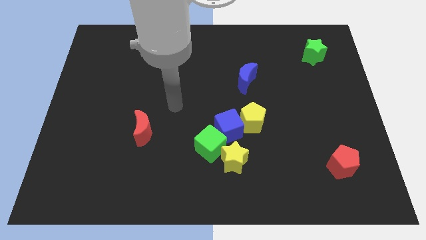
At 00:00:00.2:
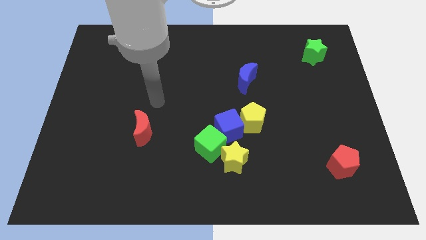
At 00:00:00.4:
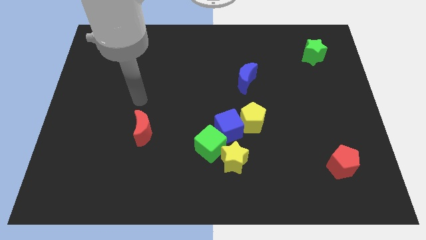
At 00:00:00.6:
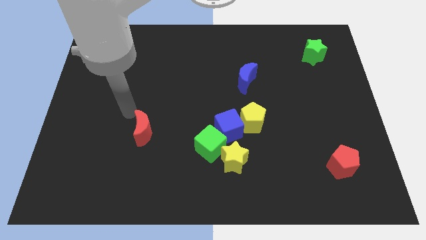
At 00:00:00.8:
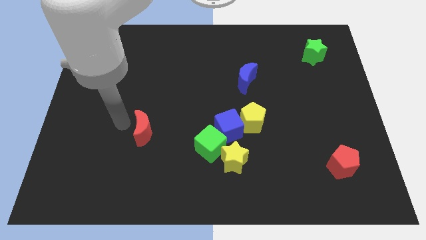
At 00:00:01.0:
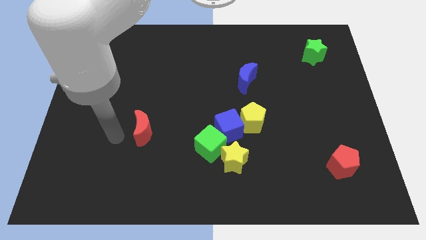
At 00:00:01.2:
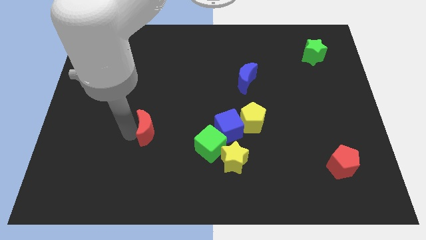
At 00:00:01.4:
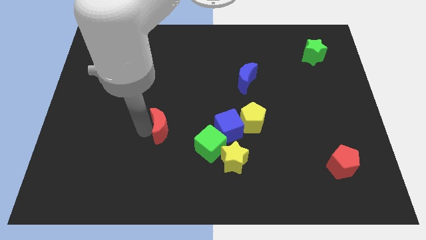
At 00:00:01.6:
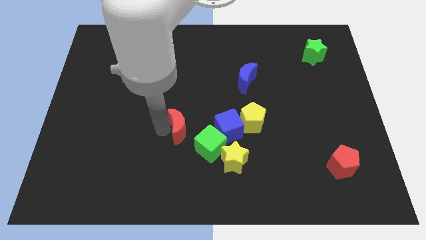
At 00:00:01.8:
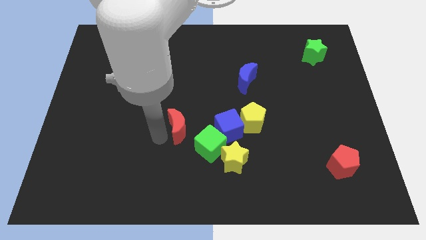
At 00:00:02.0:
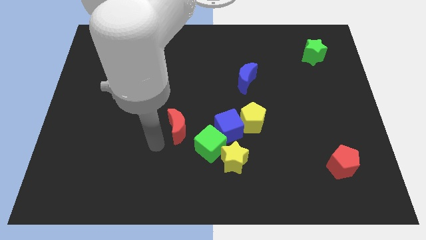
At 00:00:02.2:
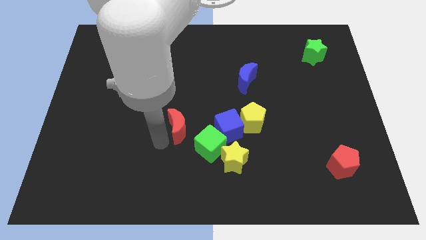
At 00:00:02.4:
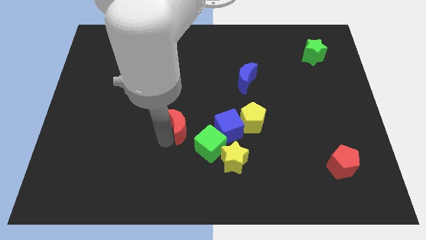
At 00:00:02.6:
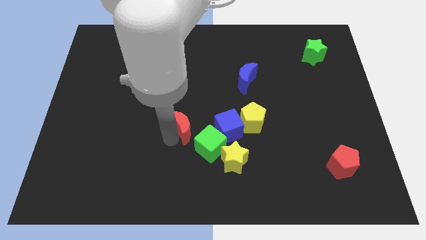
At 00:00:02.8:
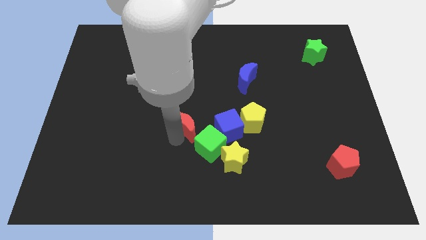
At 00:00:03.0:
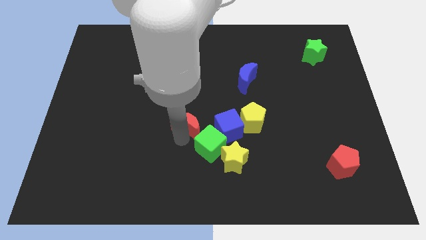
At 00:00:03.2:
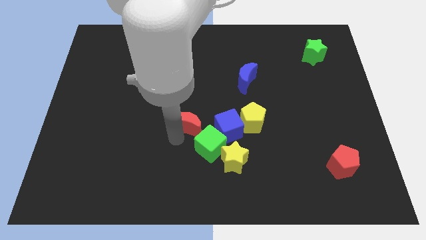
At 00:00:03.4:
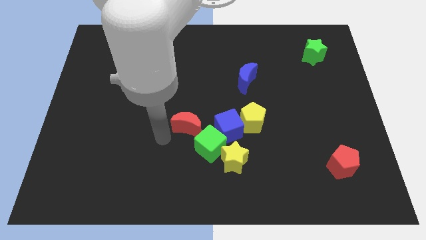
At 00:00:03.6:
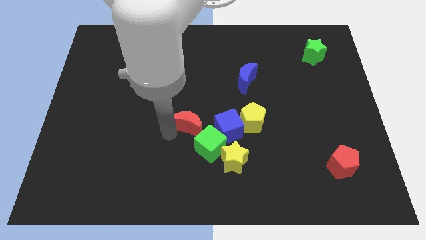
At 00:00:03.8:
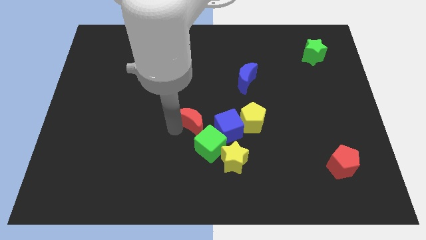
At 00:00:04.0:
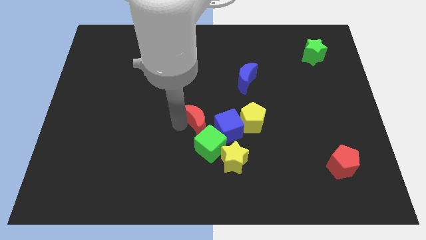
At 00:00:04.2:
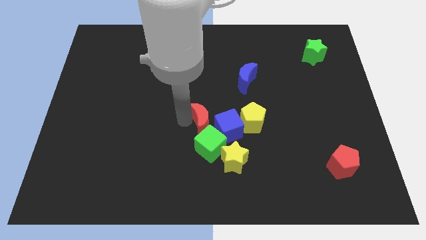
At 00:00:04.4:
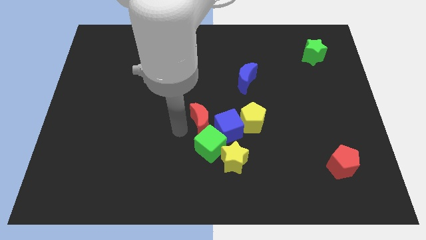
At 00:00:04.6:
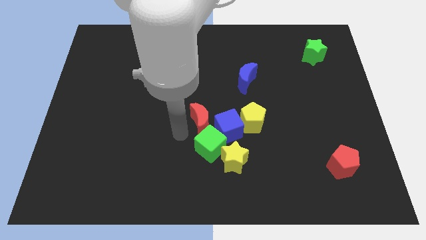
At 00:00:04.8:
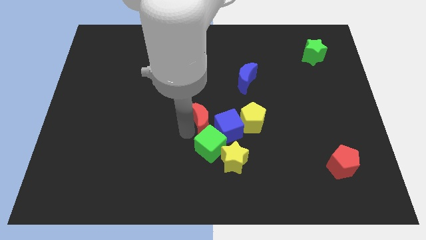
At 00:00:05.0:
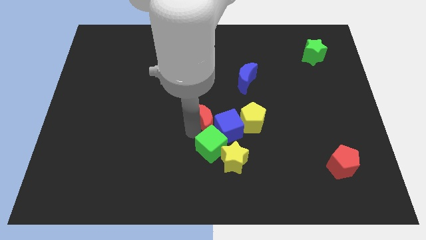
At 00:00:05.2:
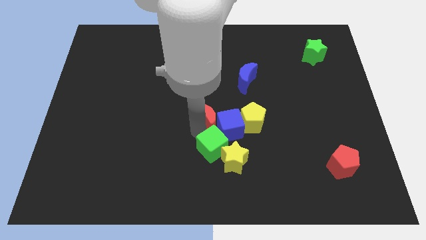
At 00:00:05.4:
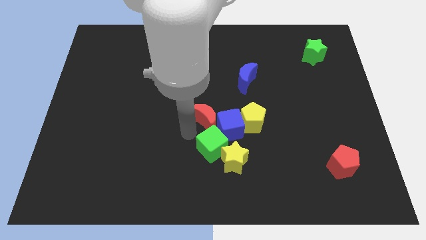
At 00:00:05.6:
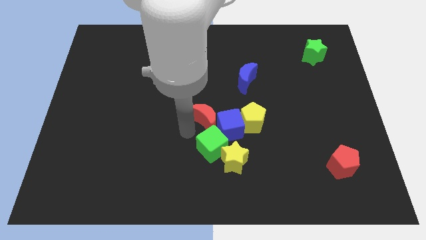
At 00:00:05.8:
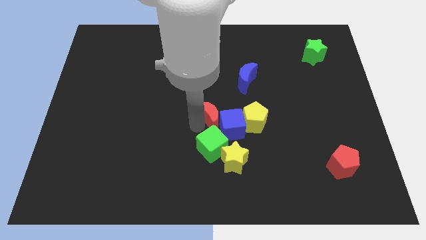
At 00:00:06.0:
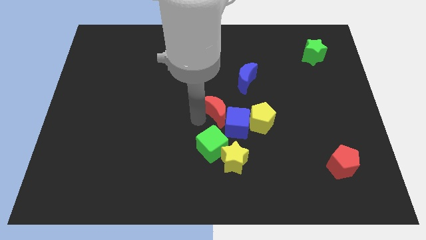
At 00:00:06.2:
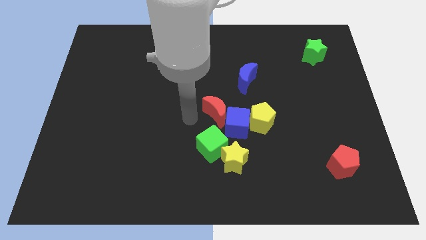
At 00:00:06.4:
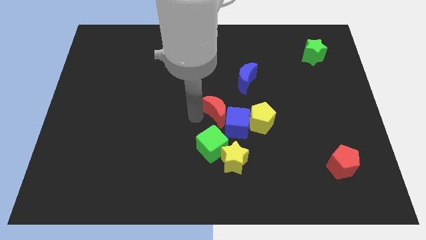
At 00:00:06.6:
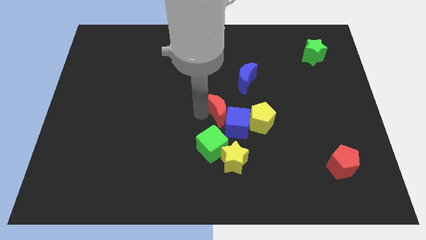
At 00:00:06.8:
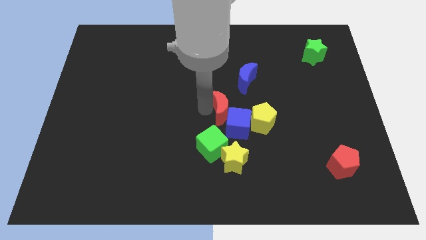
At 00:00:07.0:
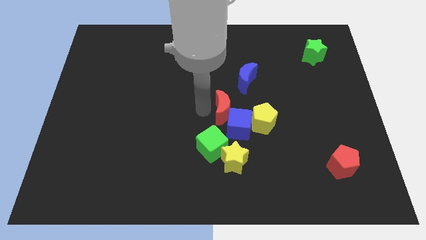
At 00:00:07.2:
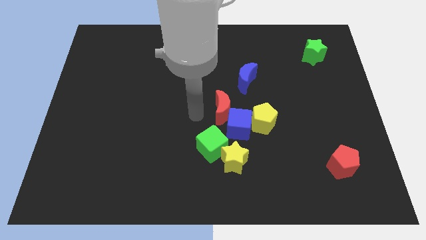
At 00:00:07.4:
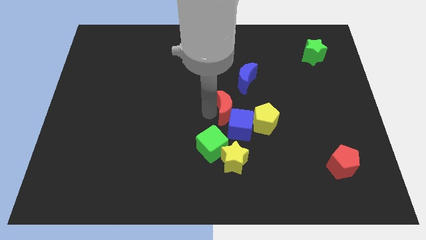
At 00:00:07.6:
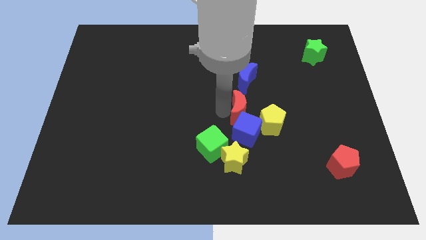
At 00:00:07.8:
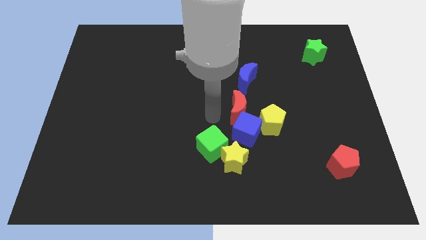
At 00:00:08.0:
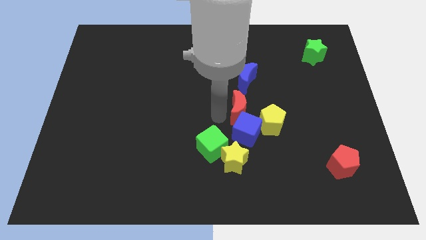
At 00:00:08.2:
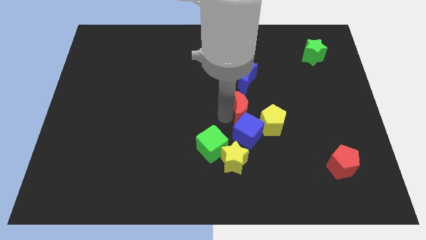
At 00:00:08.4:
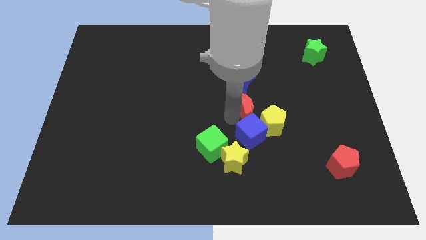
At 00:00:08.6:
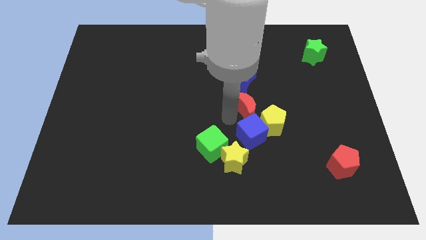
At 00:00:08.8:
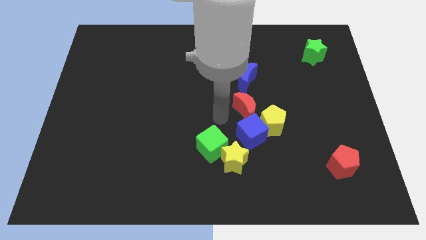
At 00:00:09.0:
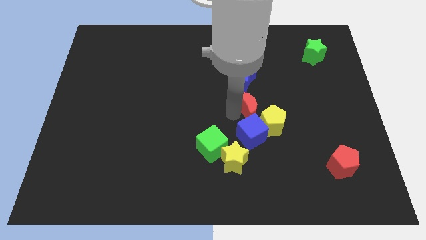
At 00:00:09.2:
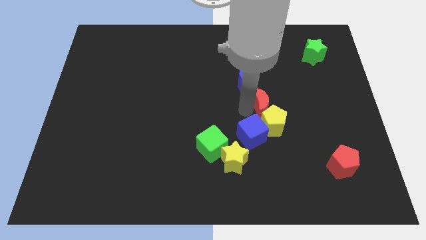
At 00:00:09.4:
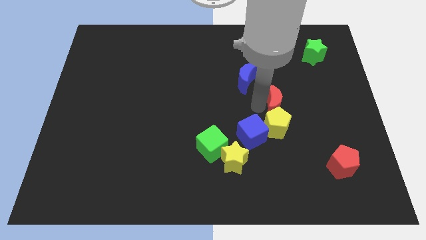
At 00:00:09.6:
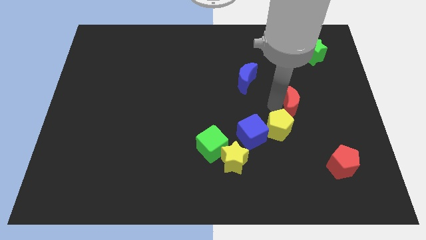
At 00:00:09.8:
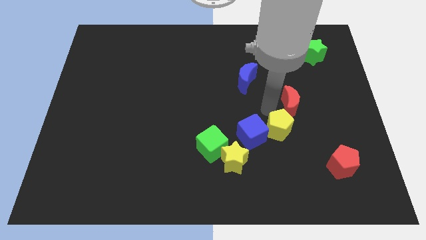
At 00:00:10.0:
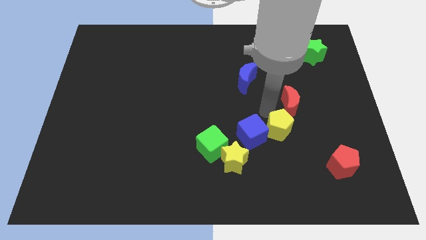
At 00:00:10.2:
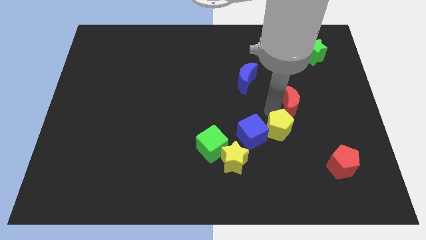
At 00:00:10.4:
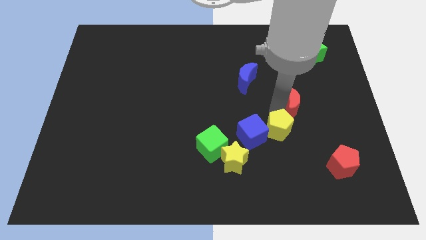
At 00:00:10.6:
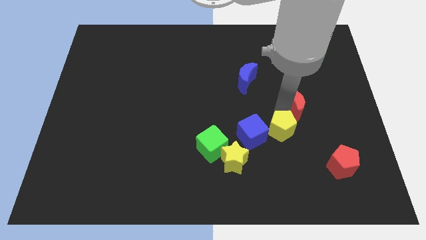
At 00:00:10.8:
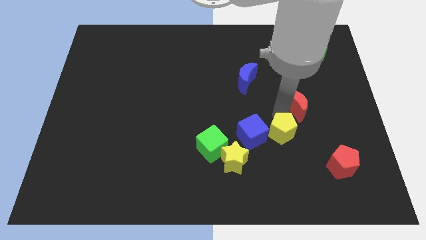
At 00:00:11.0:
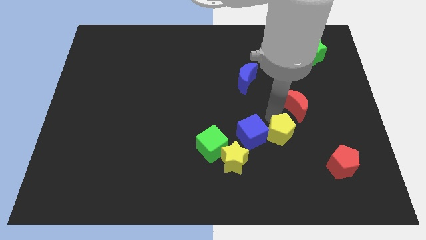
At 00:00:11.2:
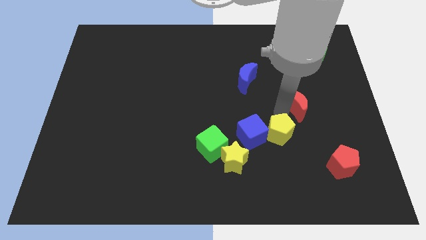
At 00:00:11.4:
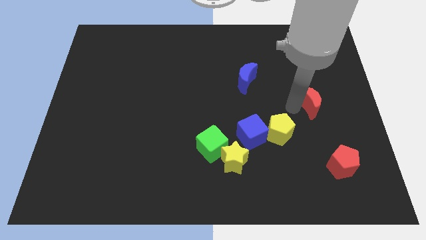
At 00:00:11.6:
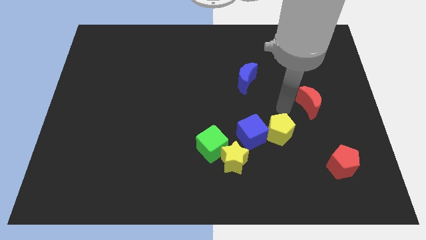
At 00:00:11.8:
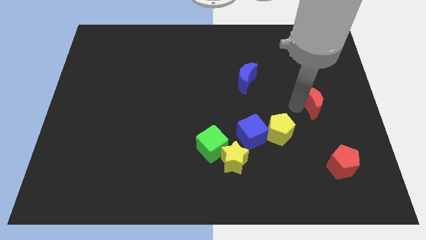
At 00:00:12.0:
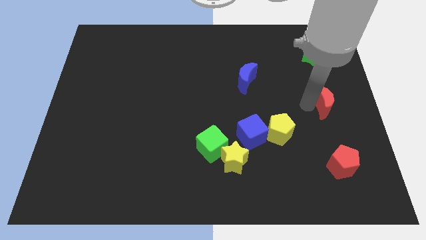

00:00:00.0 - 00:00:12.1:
push the red moon to the right side of the board

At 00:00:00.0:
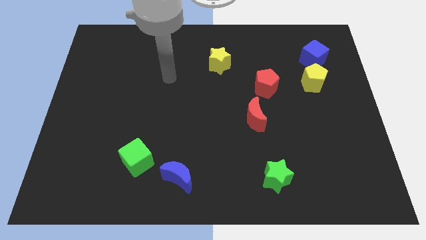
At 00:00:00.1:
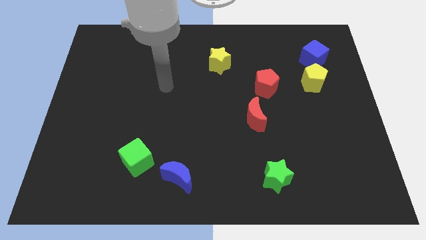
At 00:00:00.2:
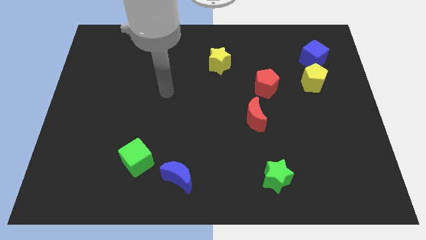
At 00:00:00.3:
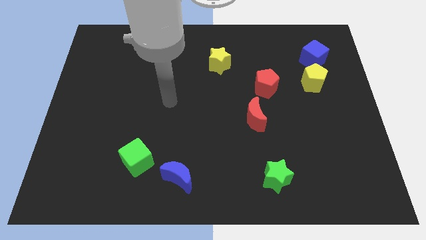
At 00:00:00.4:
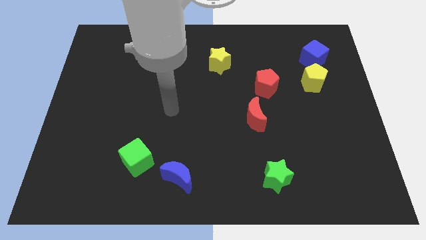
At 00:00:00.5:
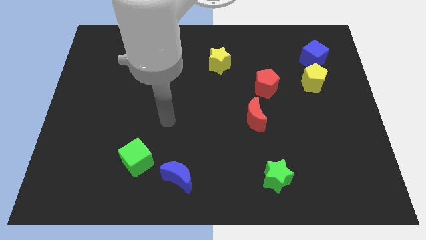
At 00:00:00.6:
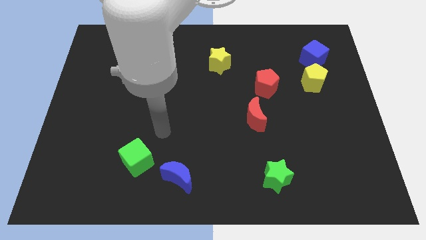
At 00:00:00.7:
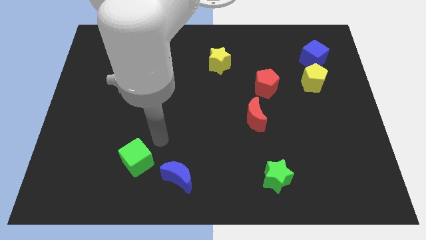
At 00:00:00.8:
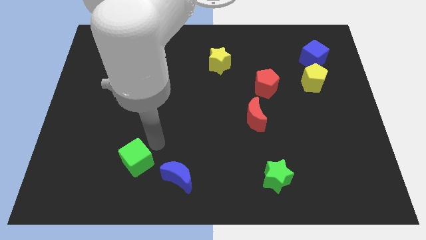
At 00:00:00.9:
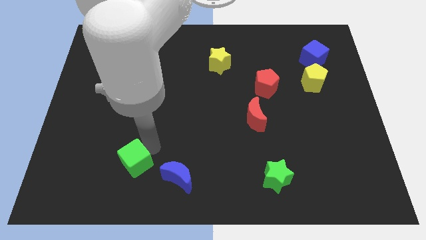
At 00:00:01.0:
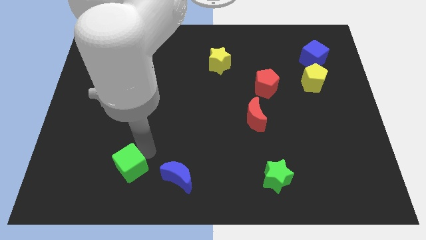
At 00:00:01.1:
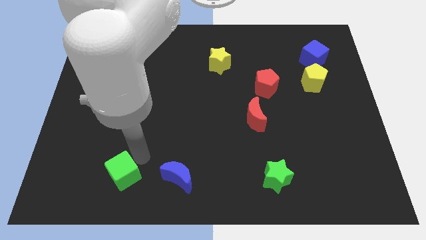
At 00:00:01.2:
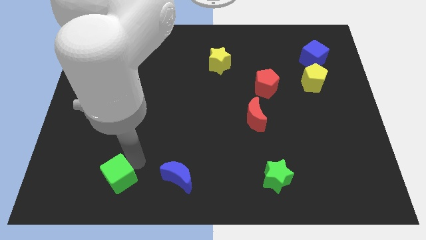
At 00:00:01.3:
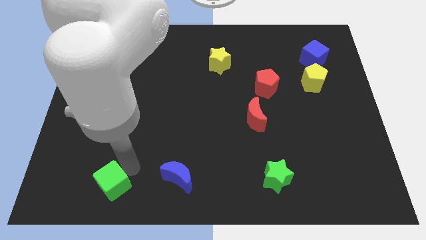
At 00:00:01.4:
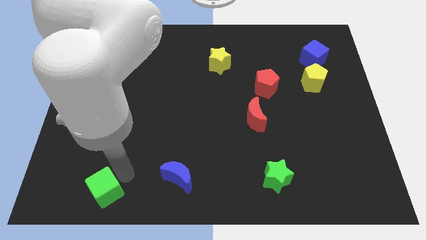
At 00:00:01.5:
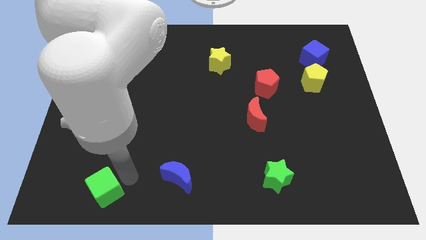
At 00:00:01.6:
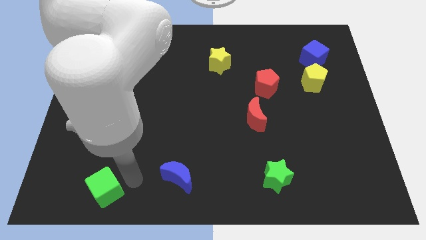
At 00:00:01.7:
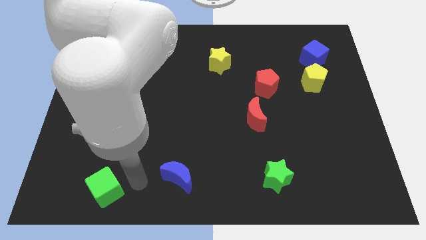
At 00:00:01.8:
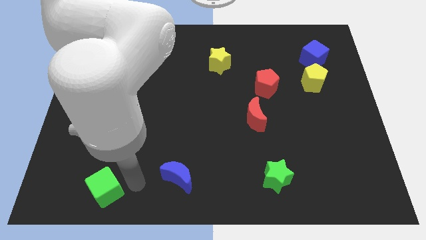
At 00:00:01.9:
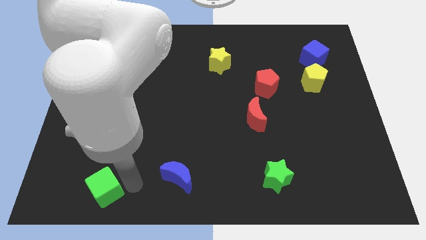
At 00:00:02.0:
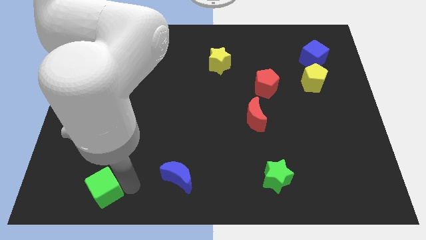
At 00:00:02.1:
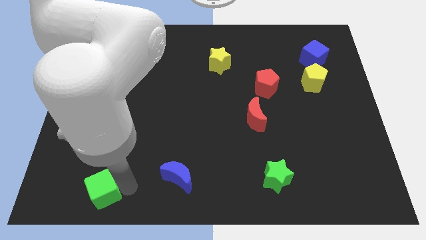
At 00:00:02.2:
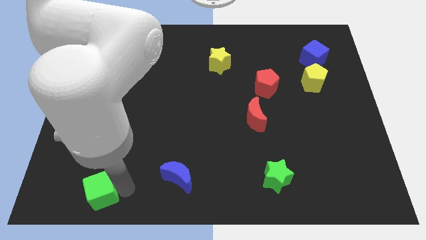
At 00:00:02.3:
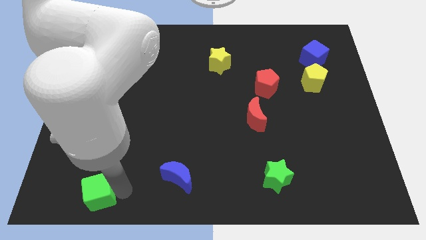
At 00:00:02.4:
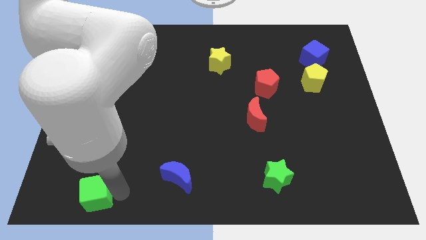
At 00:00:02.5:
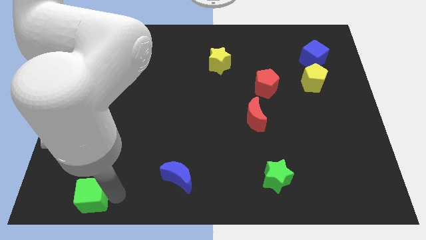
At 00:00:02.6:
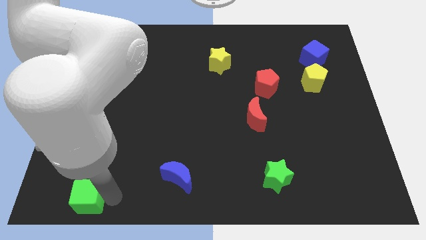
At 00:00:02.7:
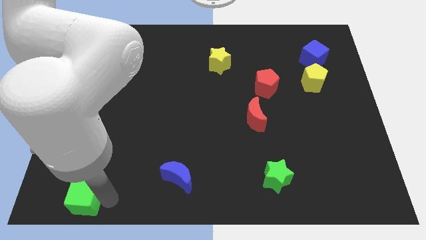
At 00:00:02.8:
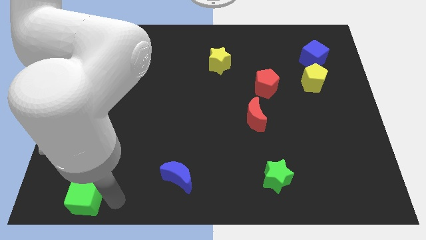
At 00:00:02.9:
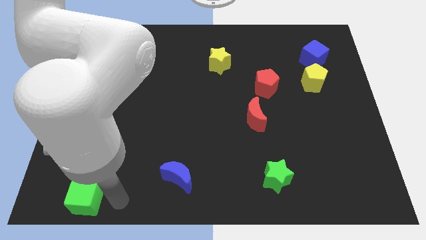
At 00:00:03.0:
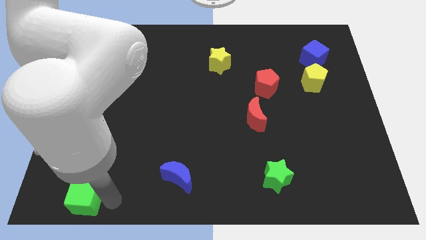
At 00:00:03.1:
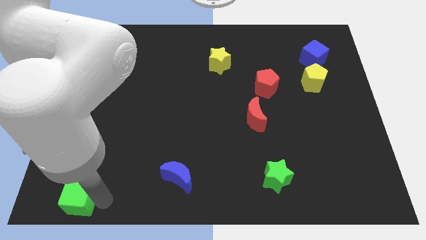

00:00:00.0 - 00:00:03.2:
slide the green cube to the bottom left of the board
